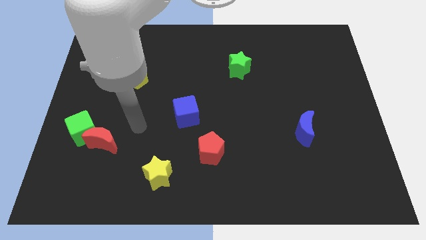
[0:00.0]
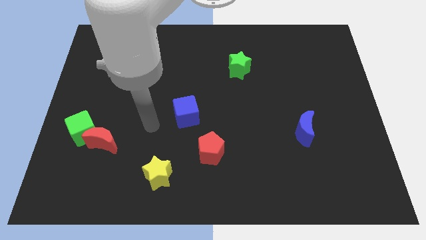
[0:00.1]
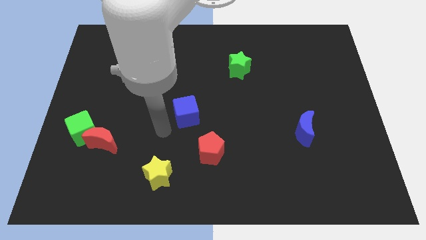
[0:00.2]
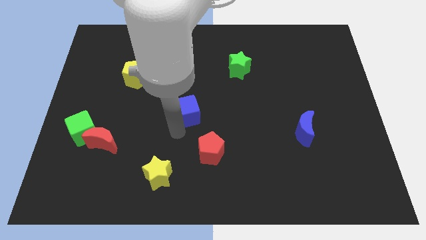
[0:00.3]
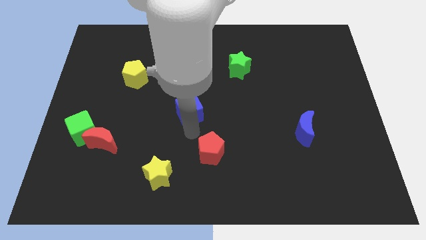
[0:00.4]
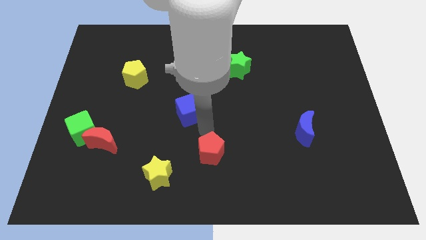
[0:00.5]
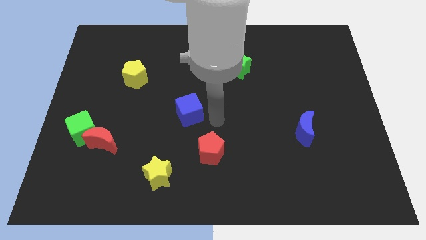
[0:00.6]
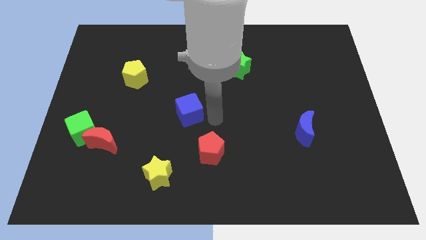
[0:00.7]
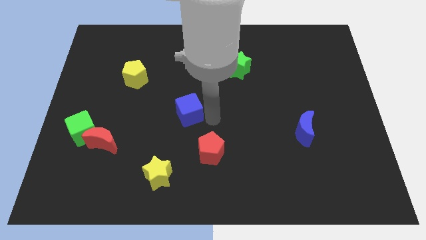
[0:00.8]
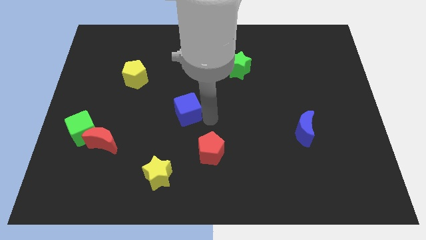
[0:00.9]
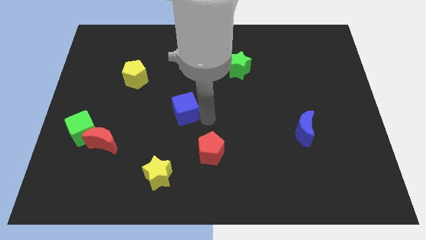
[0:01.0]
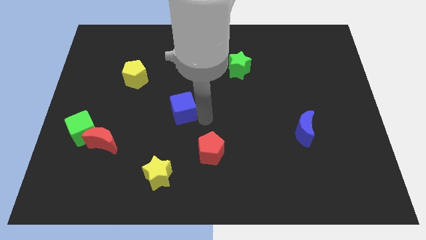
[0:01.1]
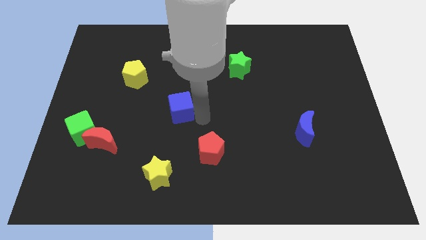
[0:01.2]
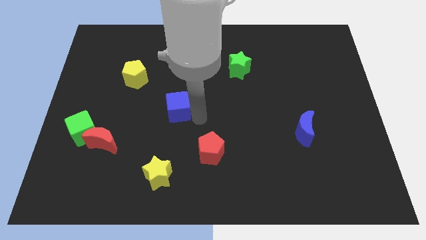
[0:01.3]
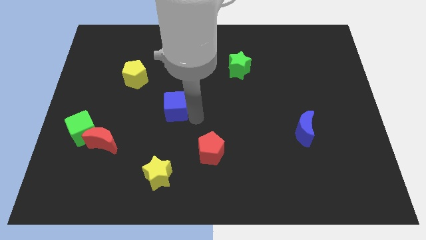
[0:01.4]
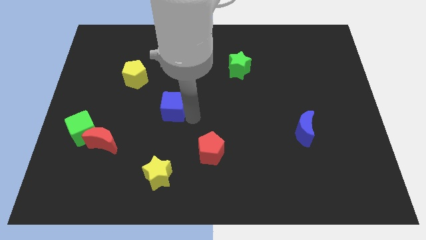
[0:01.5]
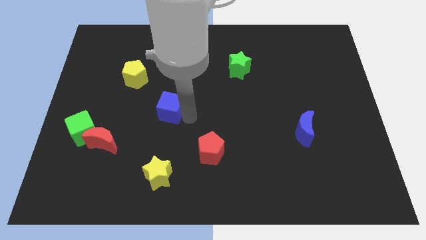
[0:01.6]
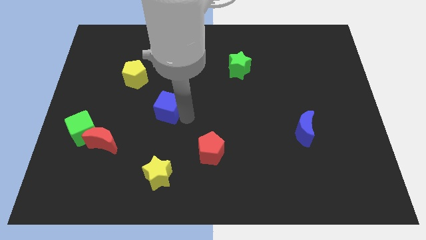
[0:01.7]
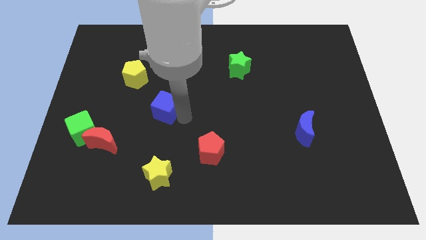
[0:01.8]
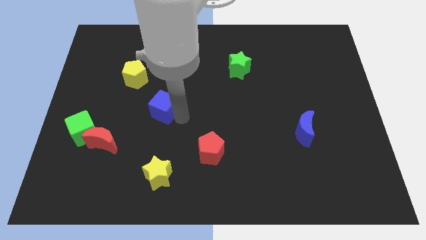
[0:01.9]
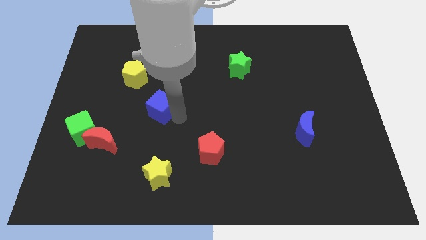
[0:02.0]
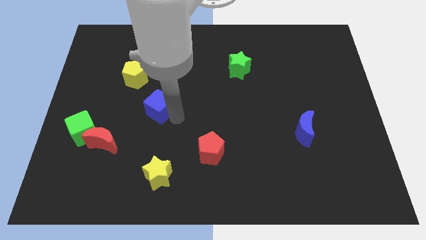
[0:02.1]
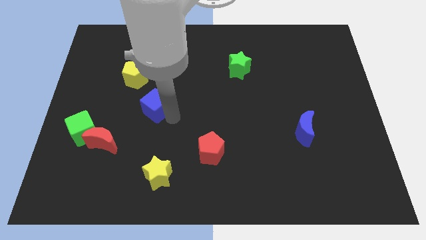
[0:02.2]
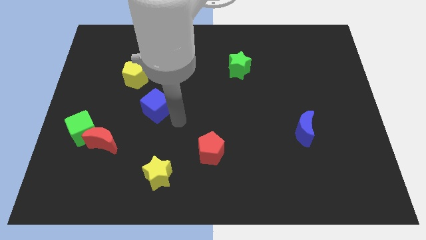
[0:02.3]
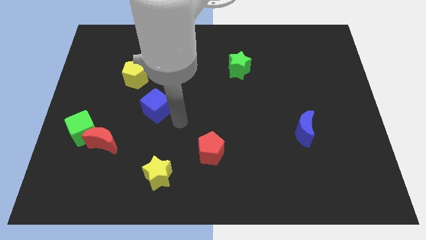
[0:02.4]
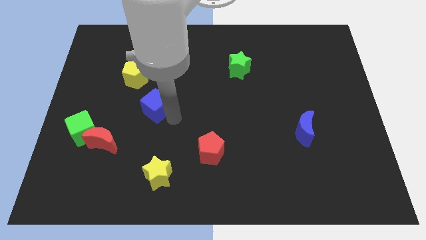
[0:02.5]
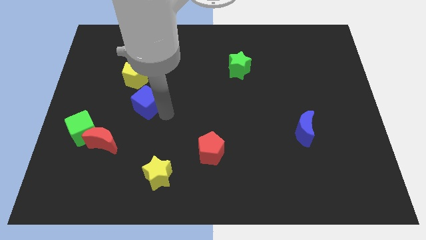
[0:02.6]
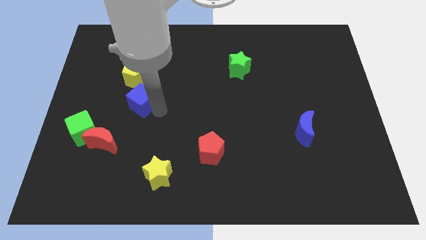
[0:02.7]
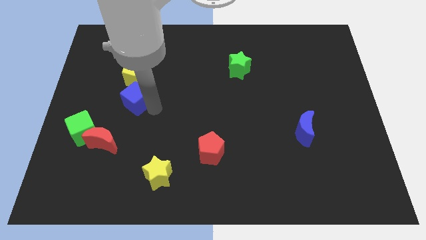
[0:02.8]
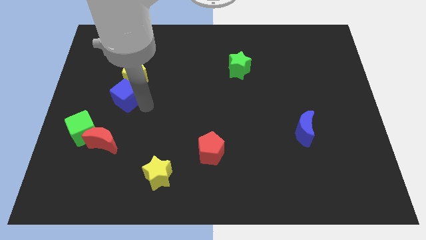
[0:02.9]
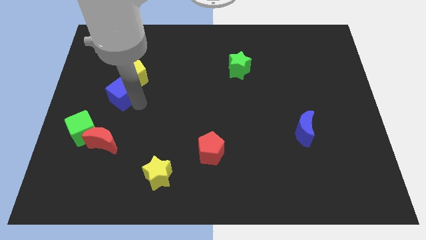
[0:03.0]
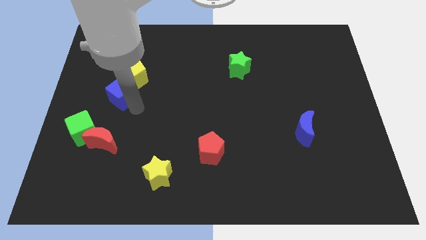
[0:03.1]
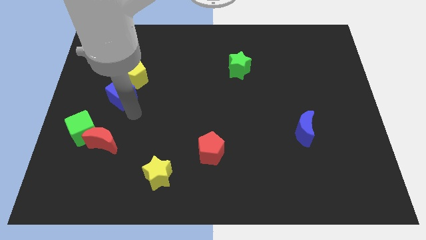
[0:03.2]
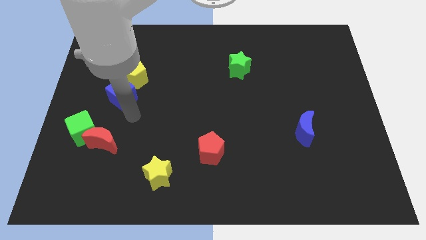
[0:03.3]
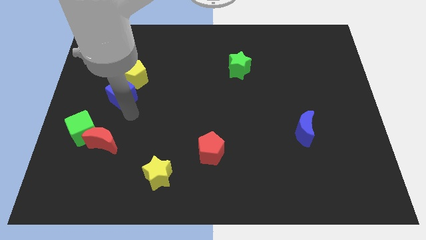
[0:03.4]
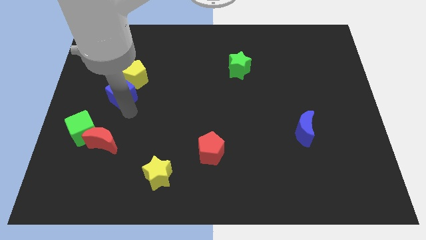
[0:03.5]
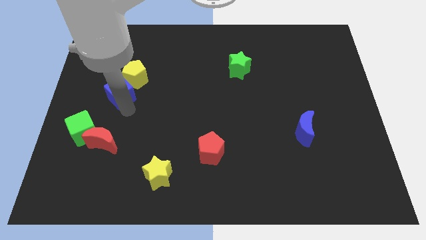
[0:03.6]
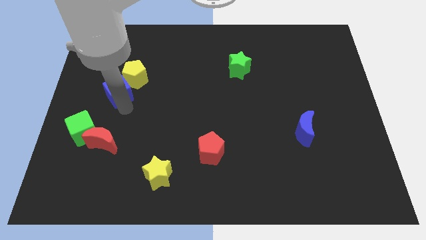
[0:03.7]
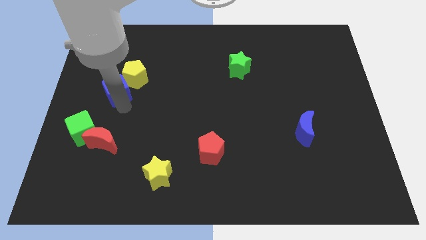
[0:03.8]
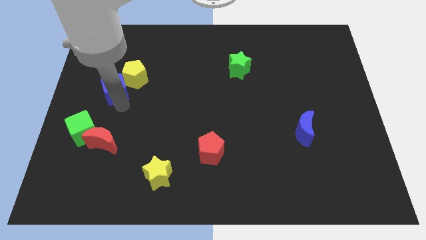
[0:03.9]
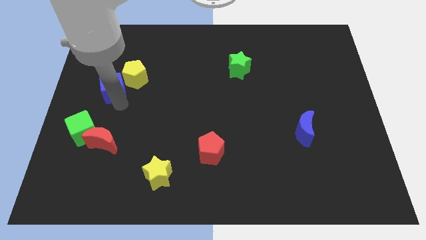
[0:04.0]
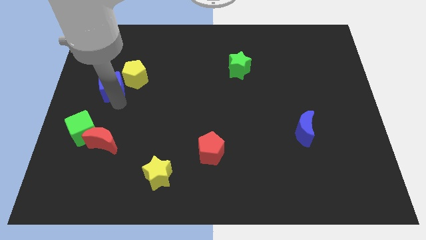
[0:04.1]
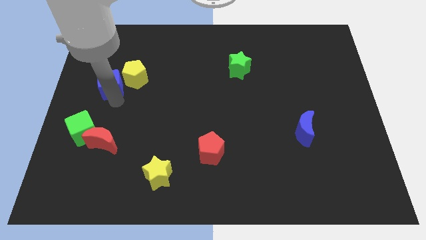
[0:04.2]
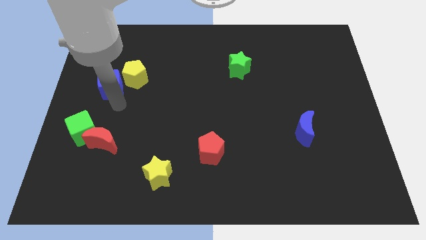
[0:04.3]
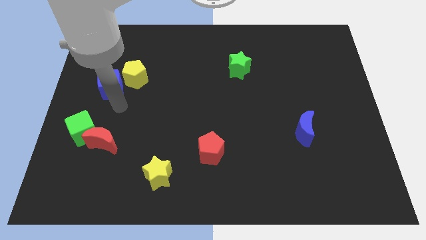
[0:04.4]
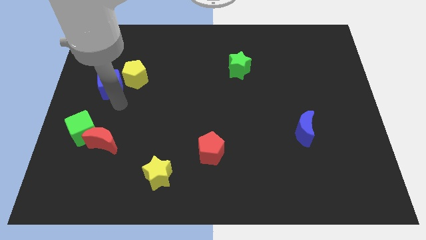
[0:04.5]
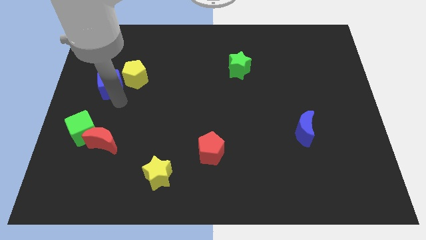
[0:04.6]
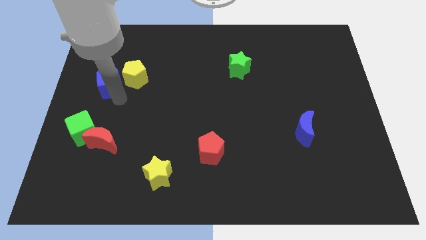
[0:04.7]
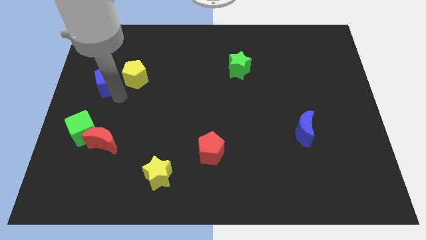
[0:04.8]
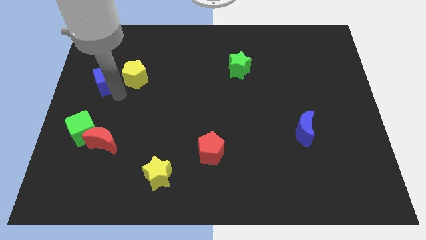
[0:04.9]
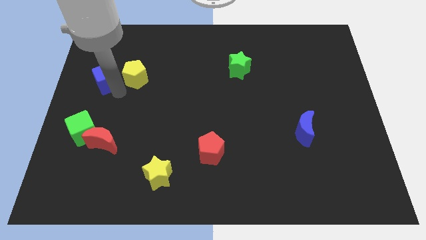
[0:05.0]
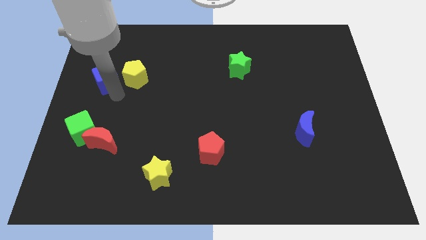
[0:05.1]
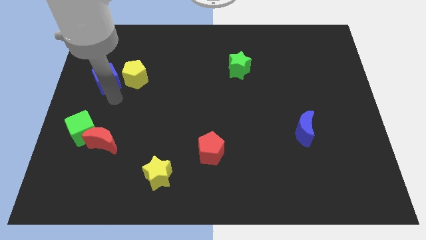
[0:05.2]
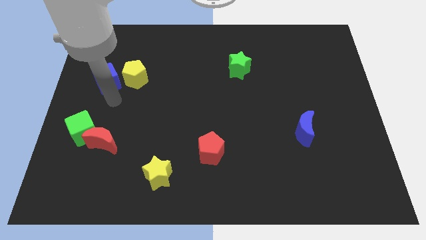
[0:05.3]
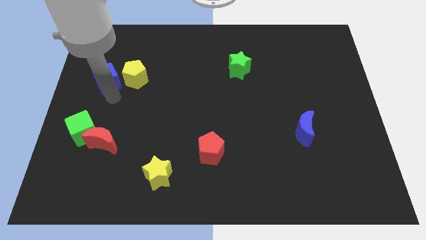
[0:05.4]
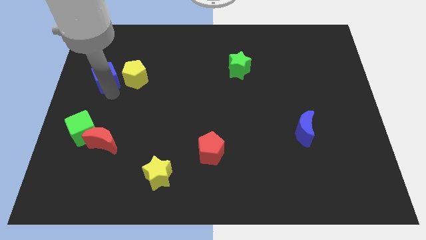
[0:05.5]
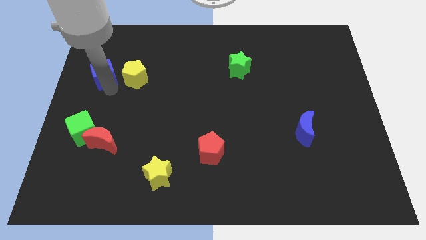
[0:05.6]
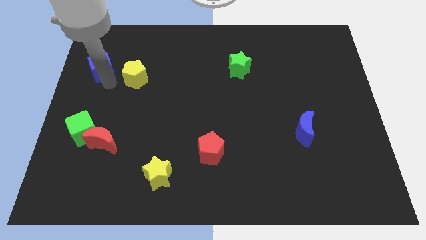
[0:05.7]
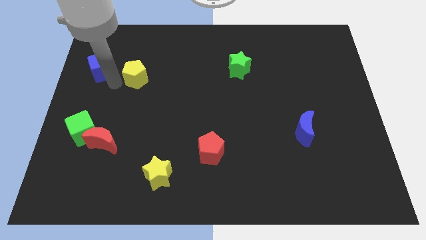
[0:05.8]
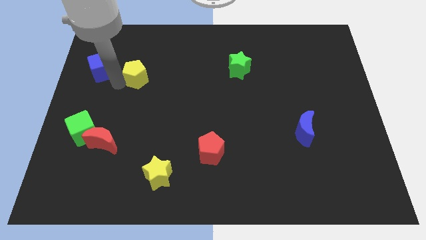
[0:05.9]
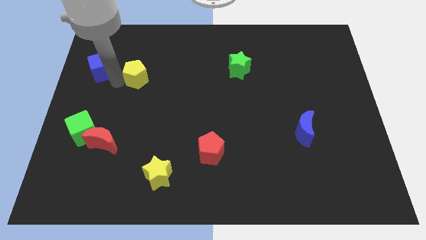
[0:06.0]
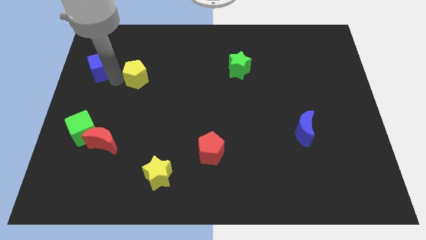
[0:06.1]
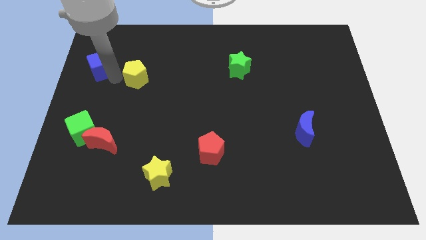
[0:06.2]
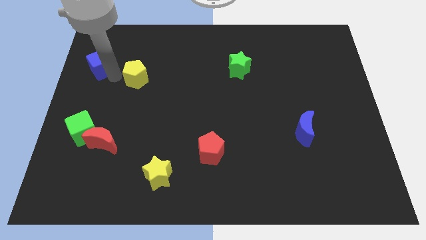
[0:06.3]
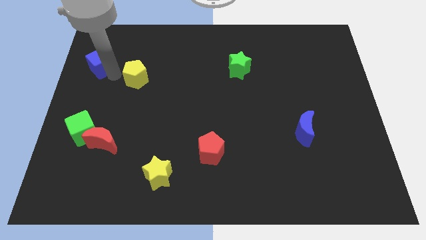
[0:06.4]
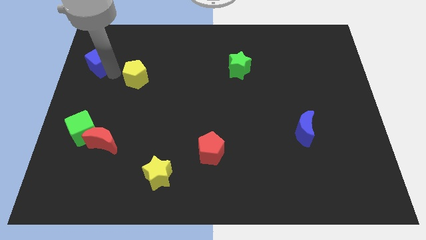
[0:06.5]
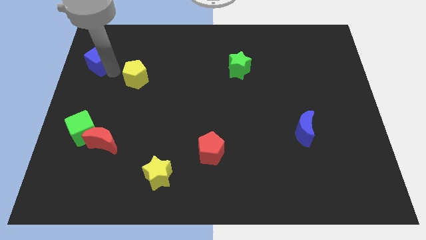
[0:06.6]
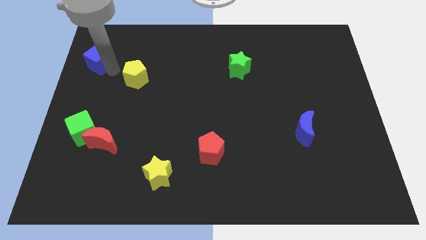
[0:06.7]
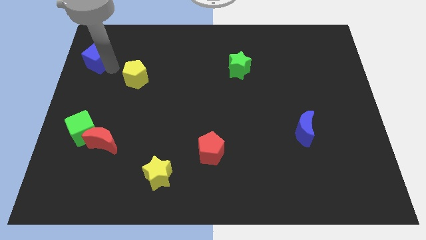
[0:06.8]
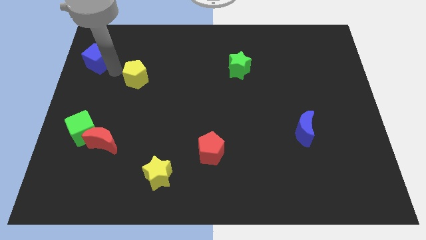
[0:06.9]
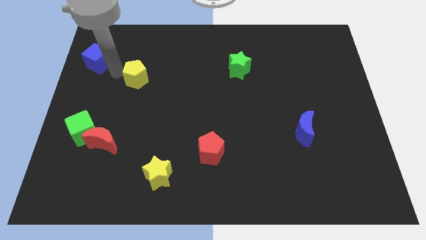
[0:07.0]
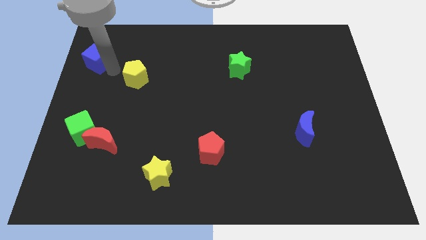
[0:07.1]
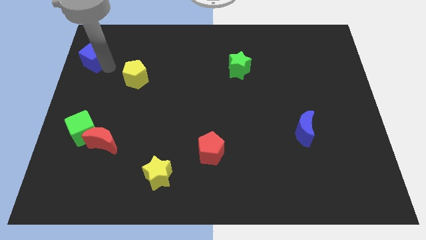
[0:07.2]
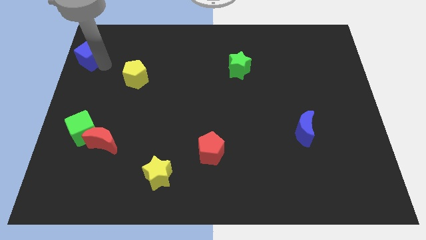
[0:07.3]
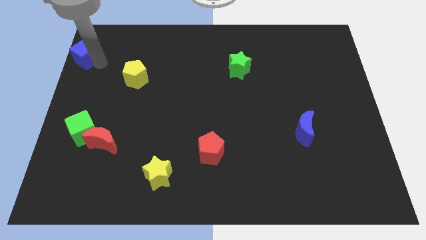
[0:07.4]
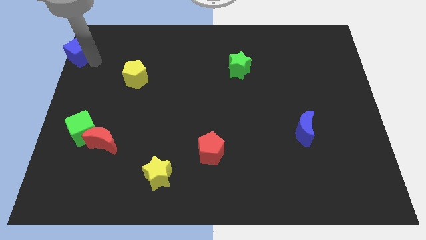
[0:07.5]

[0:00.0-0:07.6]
put the blue cube to the top left corner
